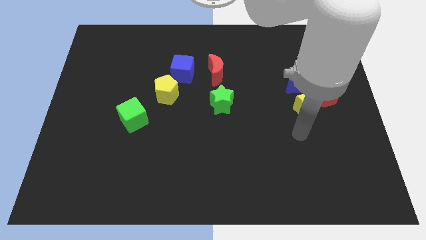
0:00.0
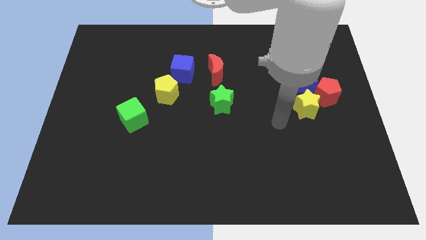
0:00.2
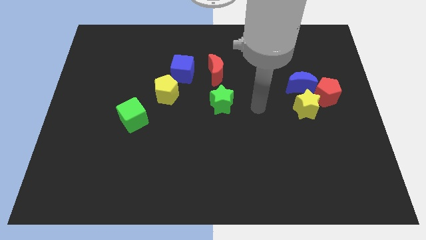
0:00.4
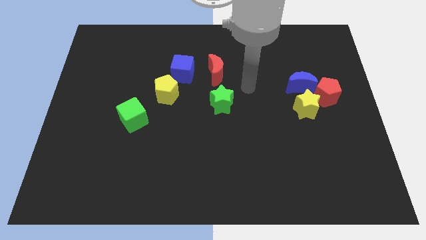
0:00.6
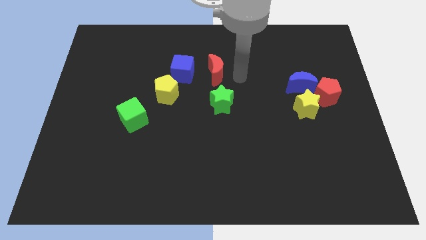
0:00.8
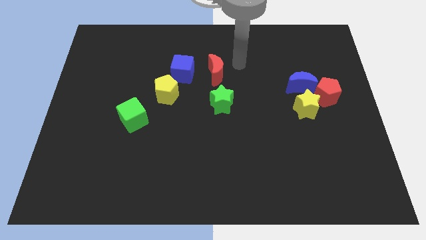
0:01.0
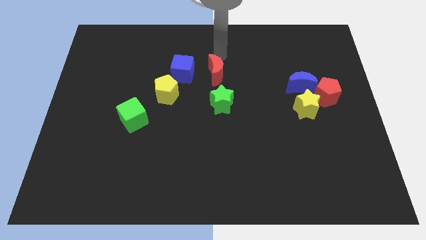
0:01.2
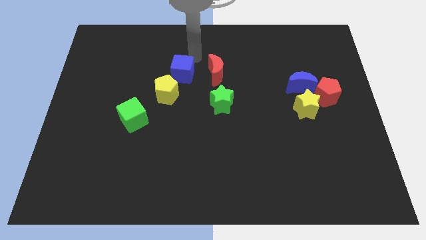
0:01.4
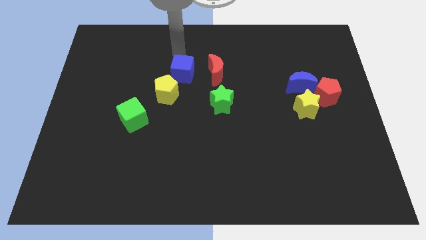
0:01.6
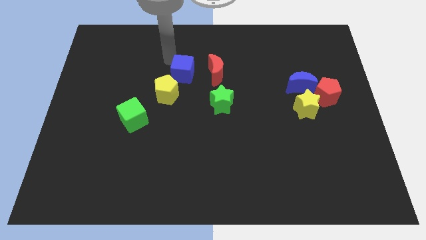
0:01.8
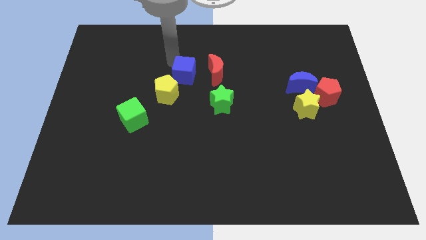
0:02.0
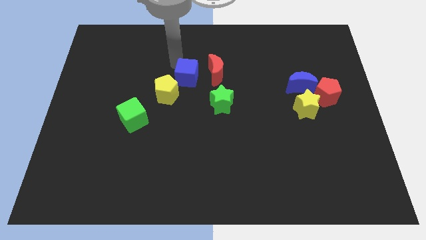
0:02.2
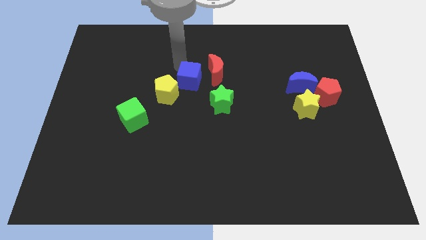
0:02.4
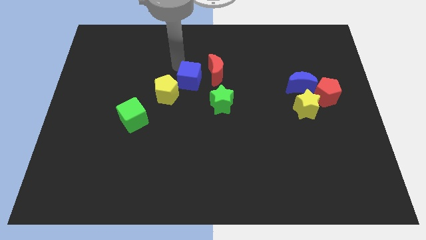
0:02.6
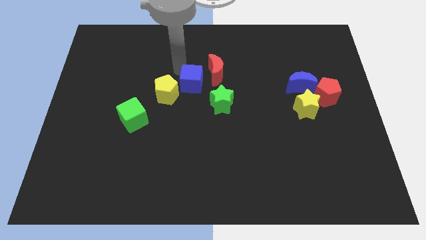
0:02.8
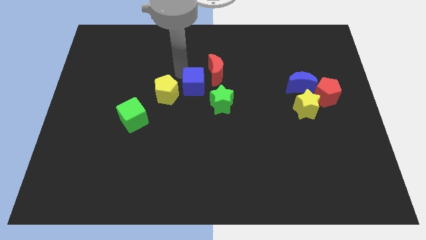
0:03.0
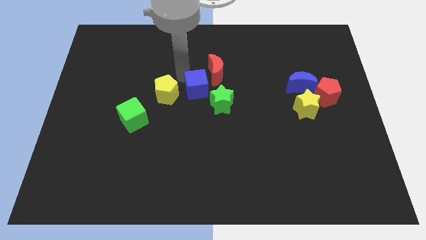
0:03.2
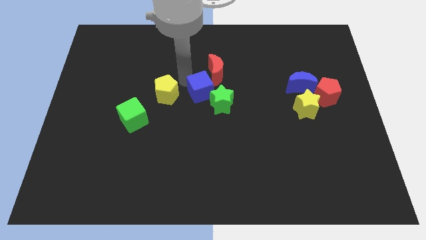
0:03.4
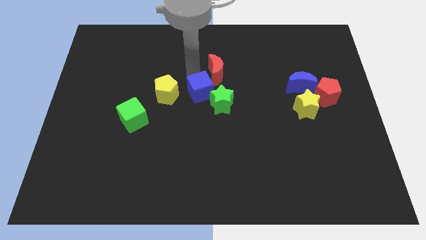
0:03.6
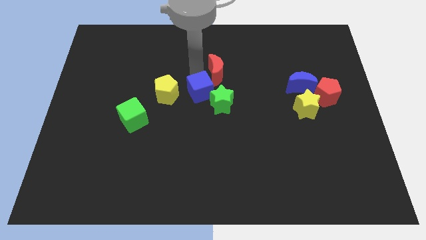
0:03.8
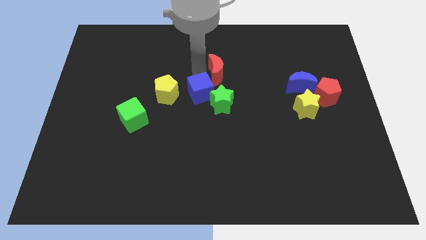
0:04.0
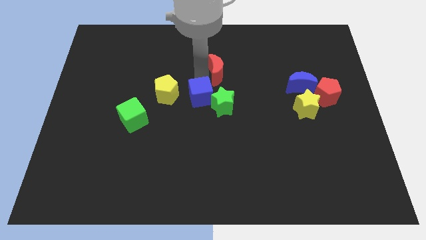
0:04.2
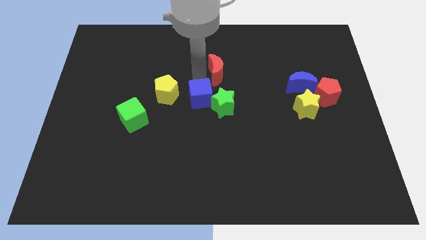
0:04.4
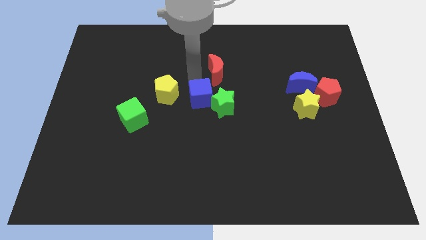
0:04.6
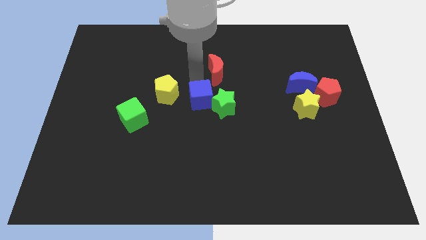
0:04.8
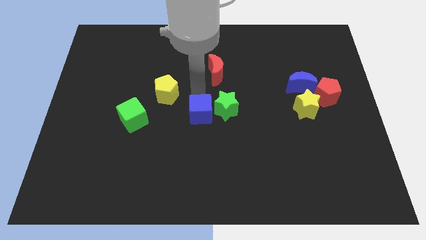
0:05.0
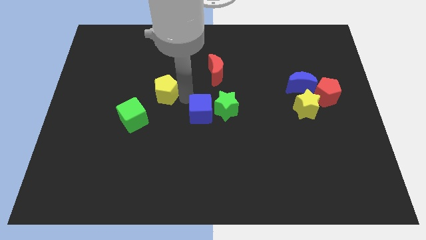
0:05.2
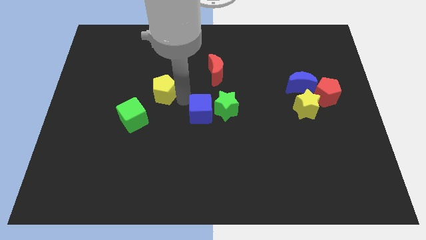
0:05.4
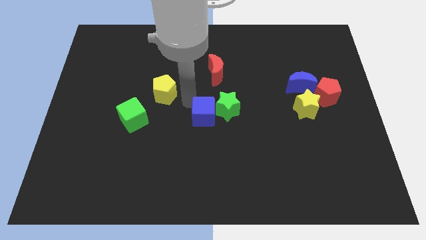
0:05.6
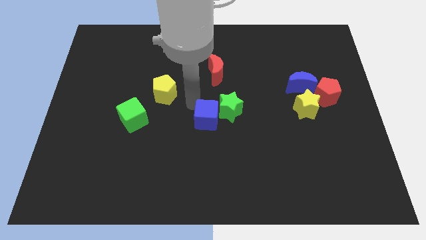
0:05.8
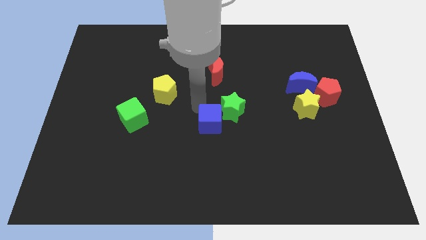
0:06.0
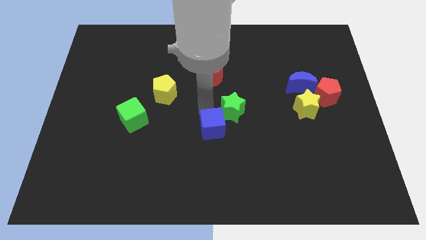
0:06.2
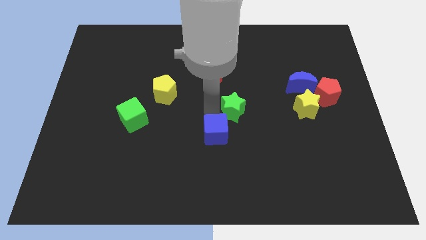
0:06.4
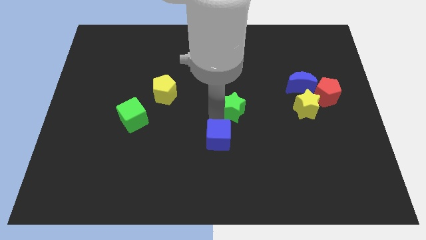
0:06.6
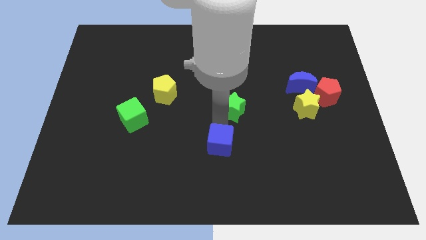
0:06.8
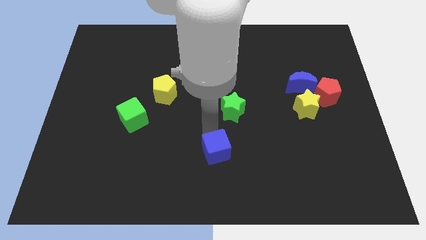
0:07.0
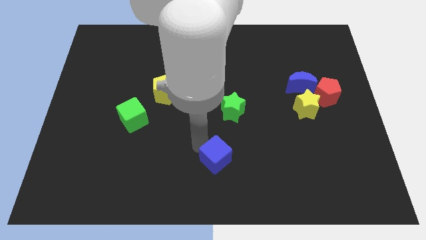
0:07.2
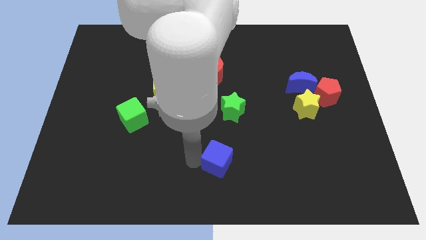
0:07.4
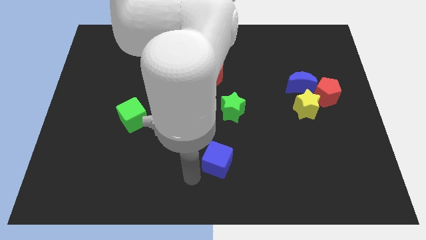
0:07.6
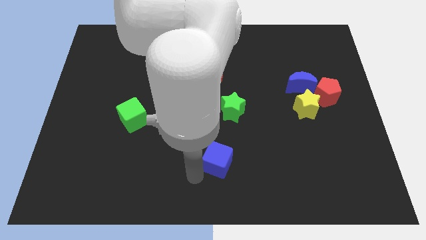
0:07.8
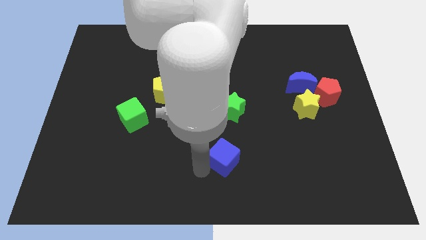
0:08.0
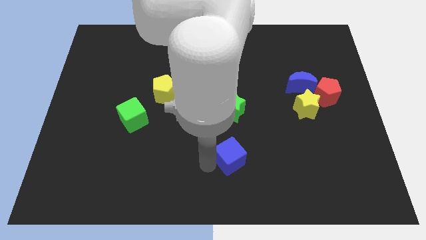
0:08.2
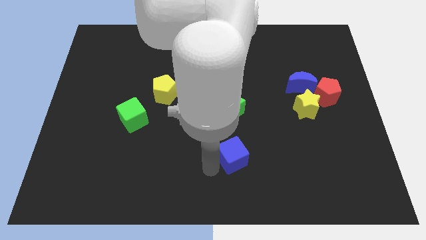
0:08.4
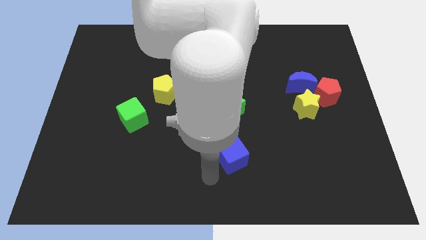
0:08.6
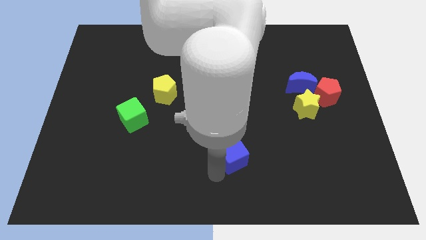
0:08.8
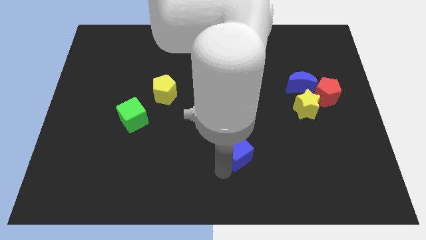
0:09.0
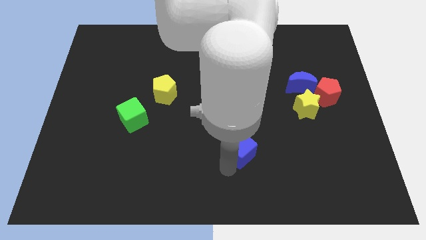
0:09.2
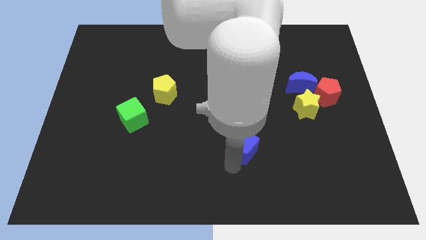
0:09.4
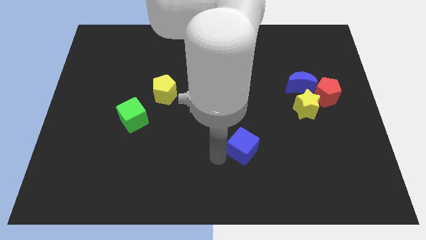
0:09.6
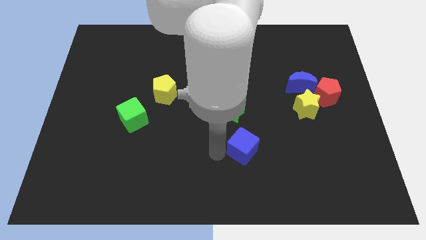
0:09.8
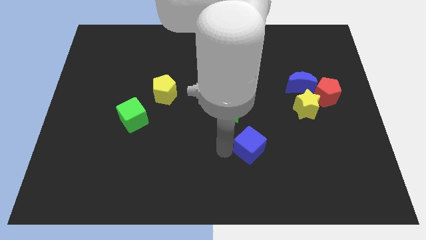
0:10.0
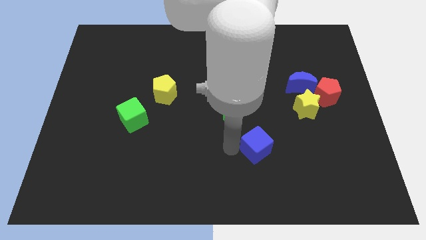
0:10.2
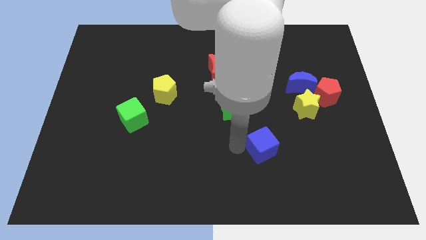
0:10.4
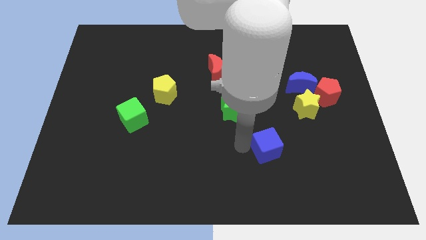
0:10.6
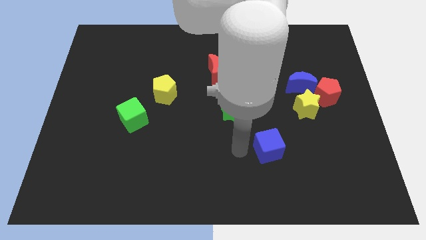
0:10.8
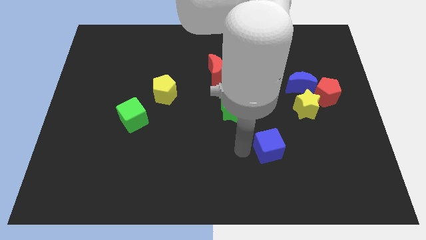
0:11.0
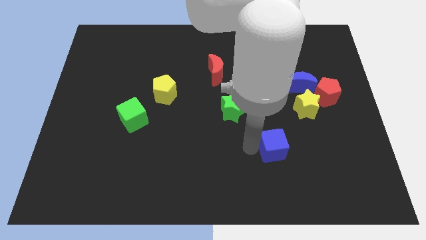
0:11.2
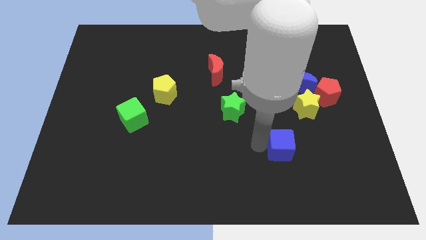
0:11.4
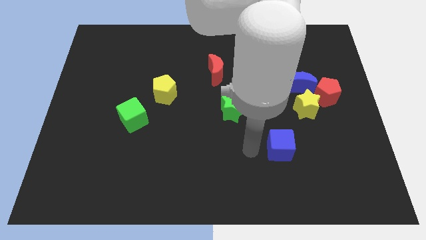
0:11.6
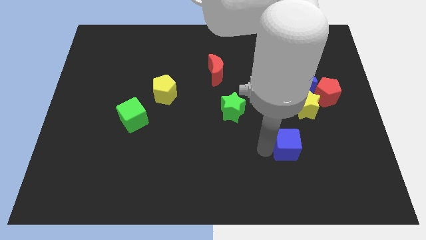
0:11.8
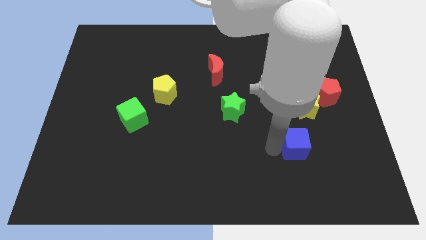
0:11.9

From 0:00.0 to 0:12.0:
put the blue cube below the yellow star
